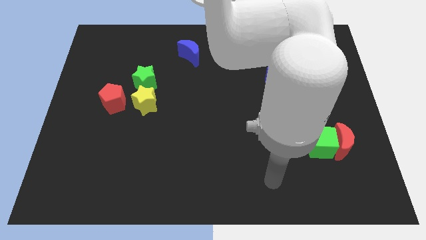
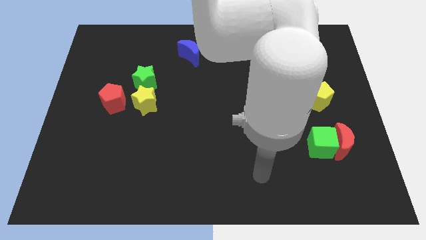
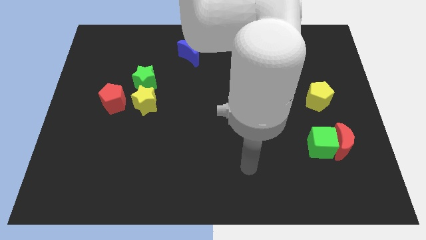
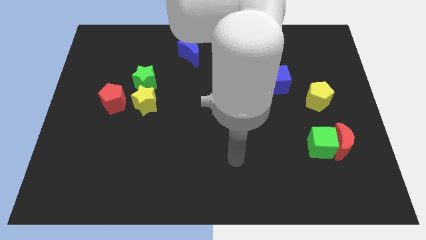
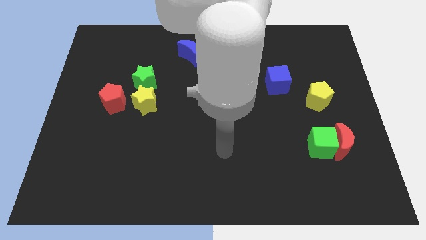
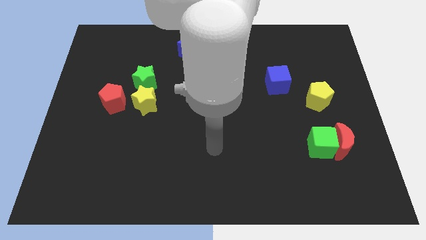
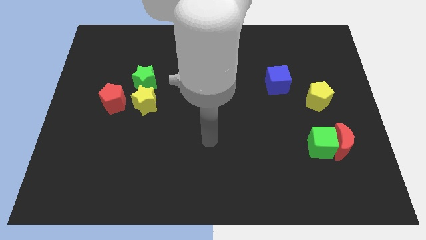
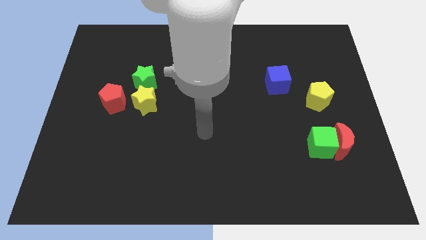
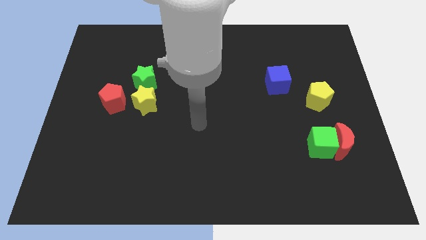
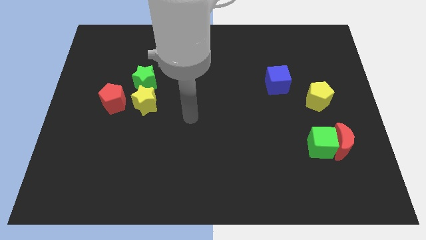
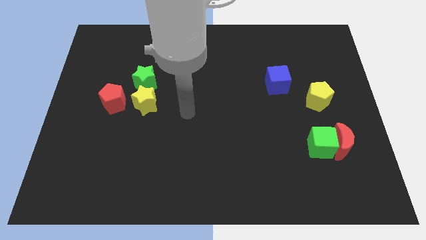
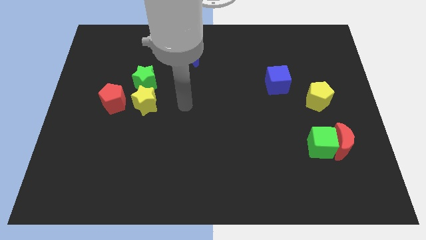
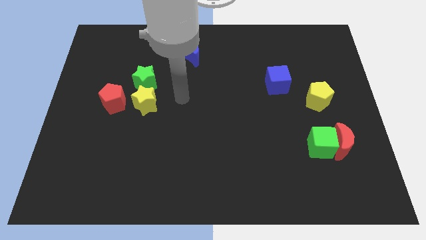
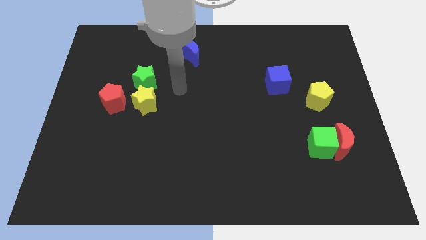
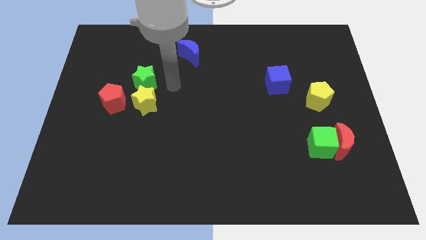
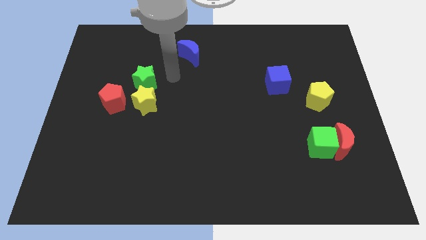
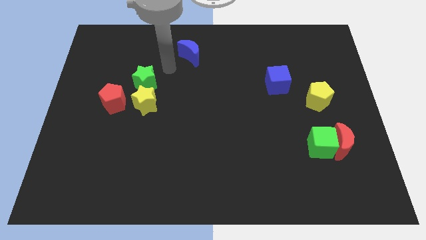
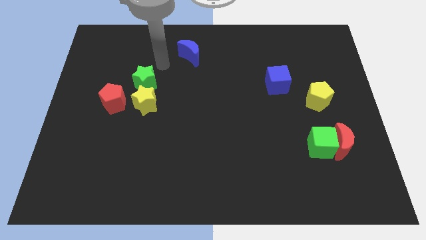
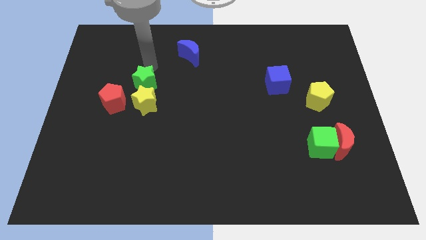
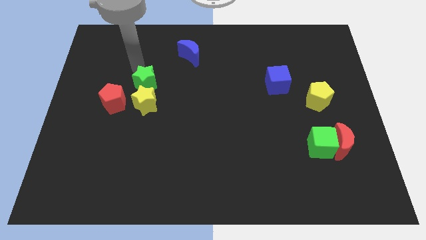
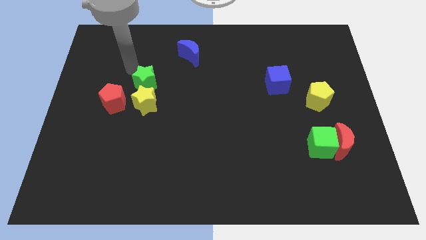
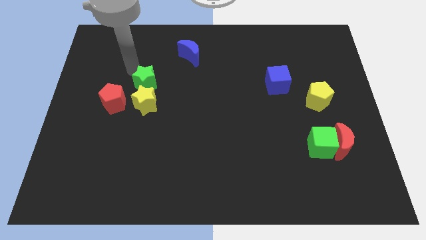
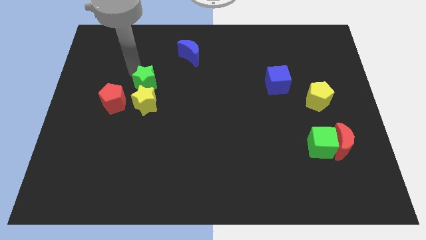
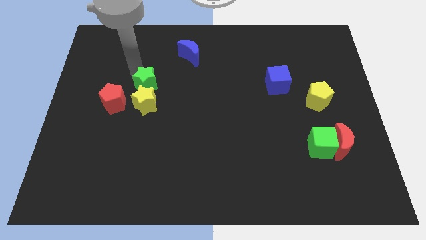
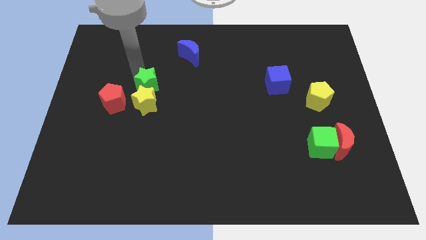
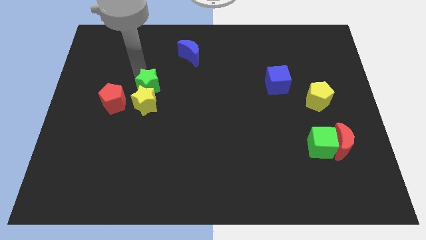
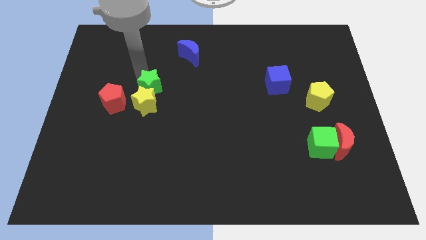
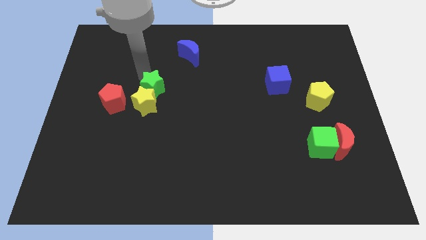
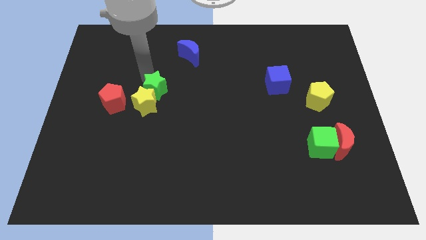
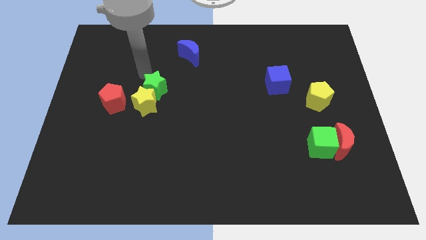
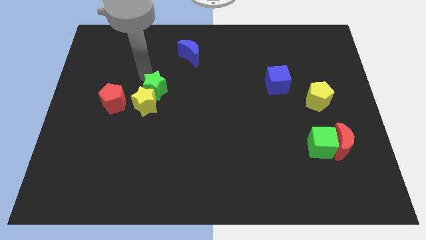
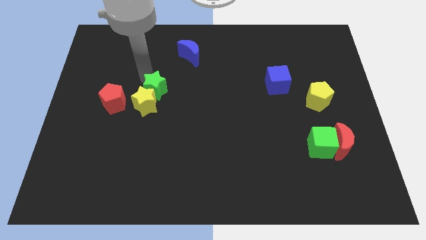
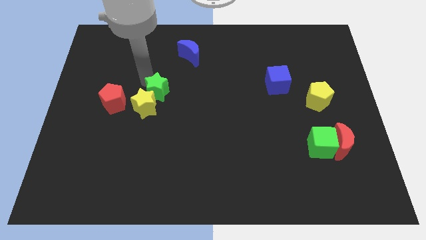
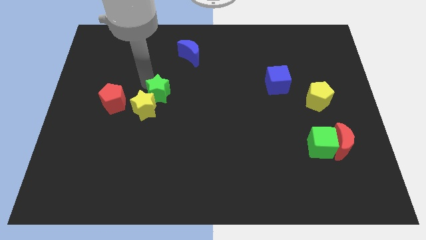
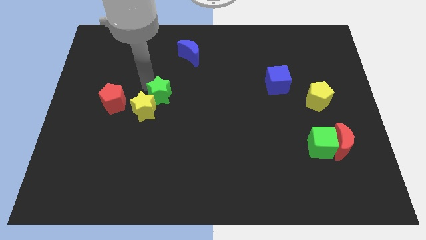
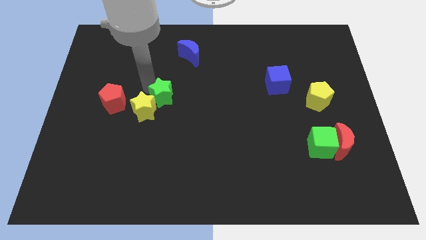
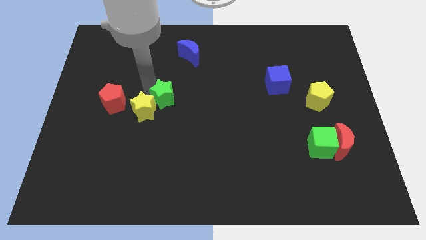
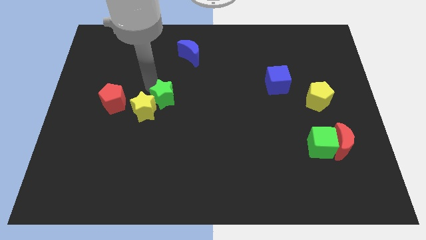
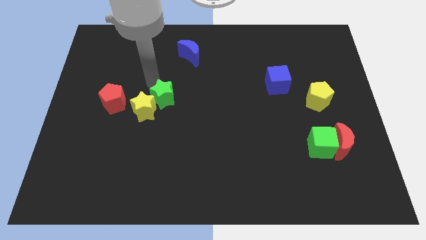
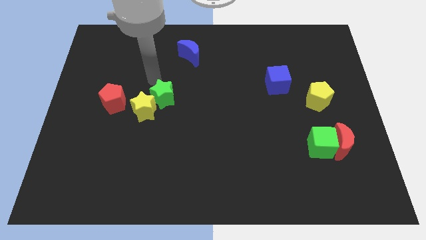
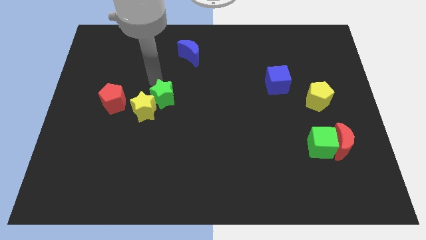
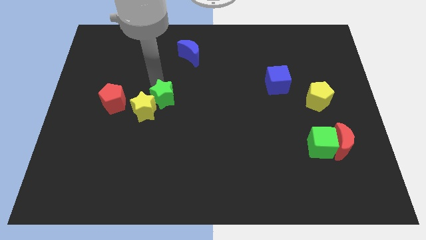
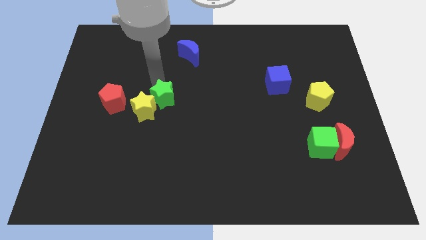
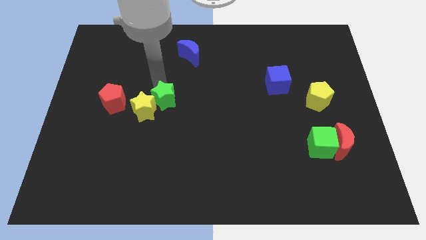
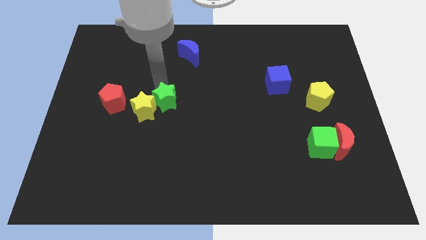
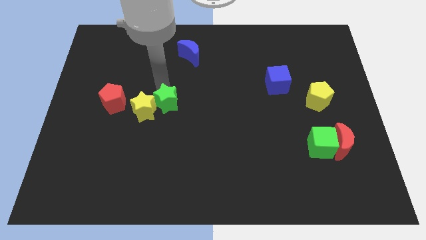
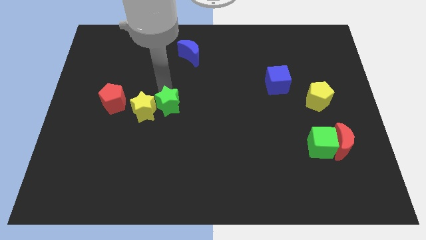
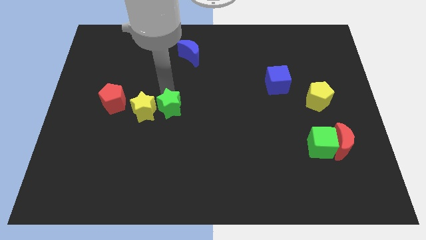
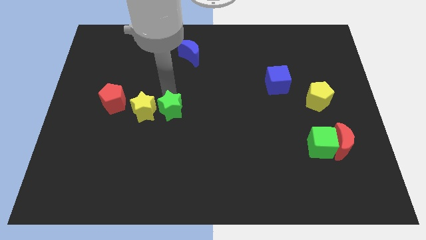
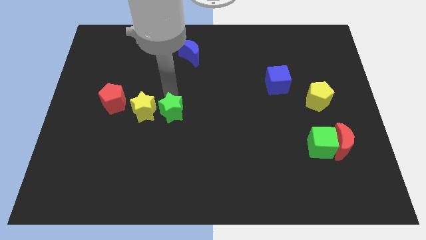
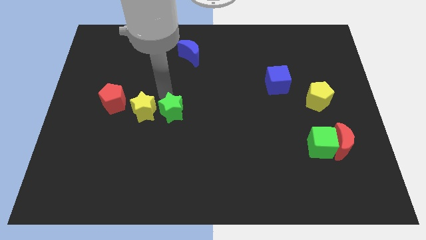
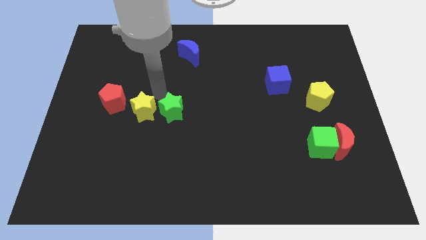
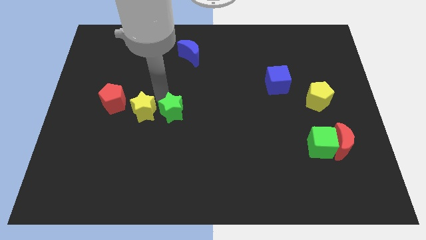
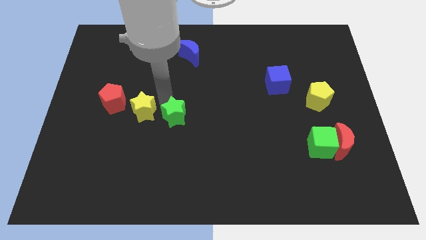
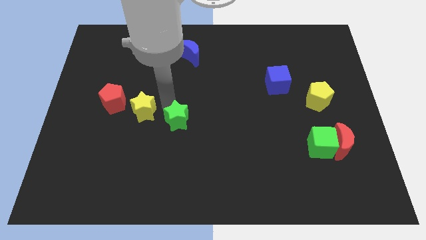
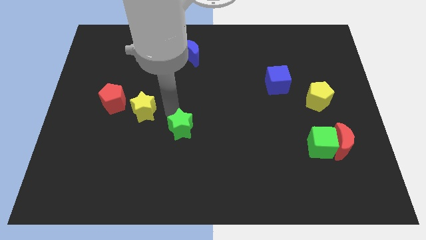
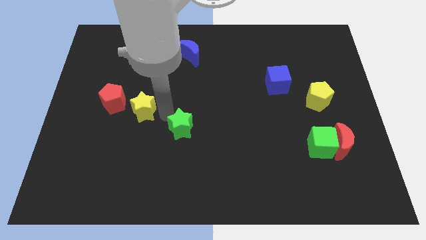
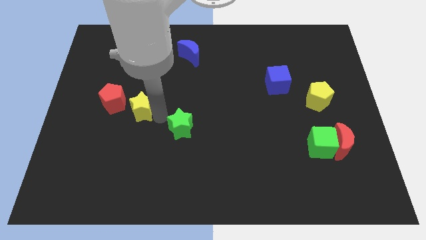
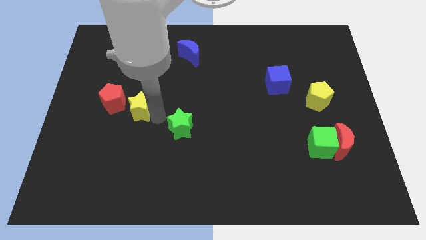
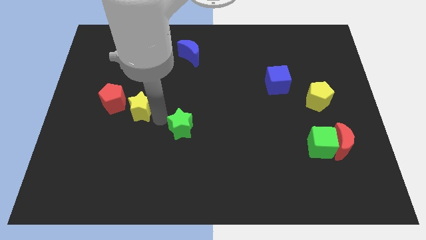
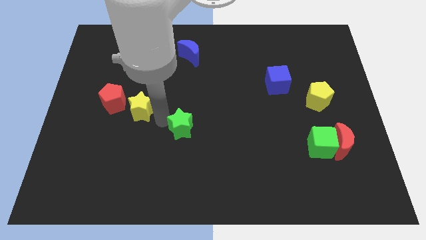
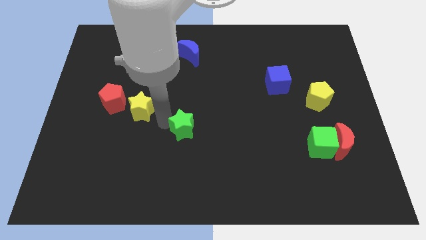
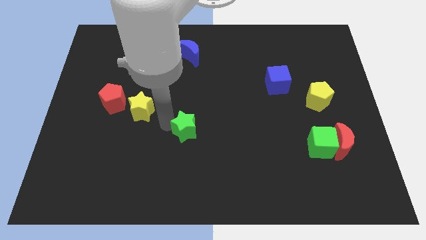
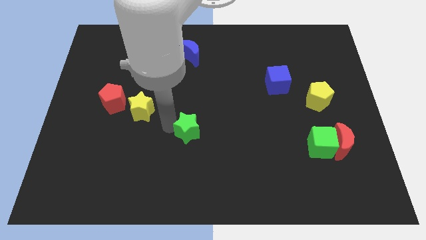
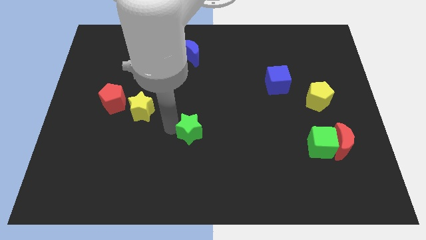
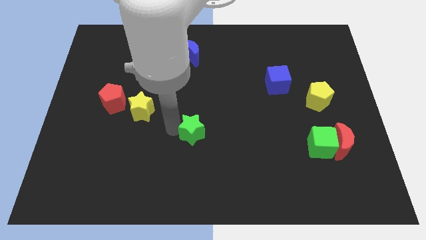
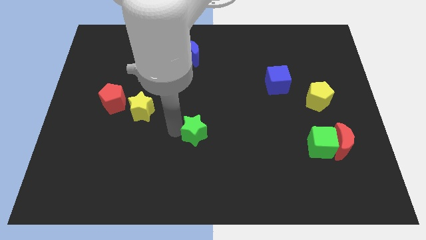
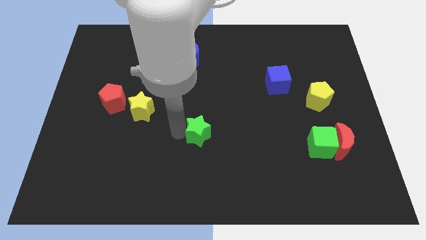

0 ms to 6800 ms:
slide the green star diagonally downwards and right

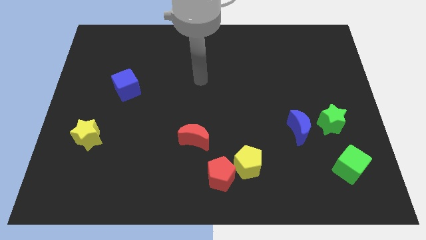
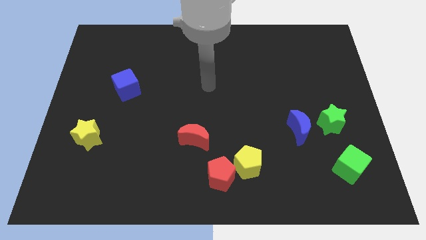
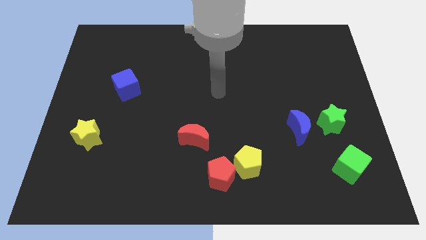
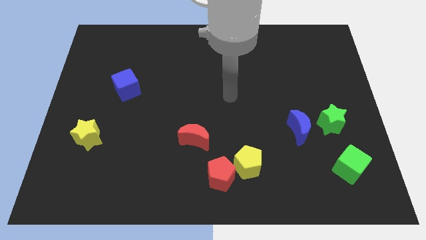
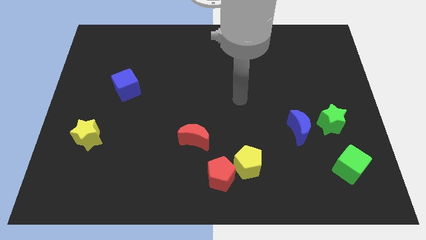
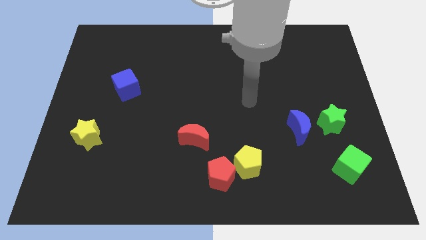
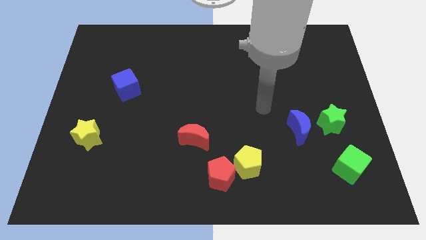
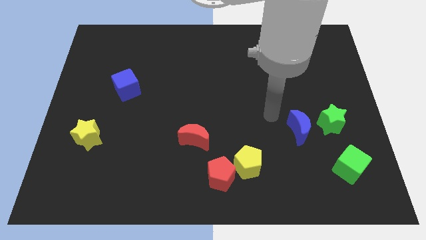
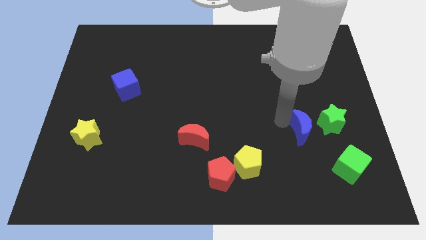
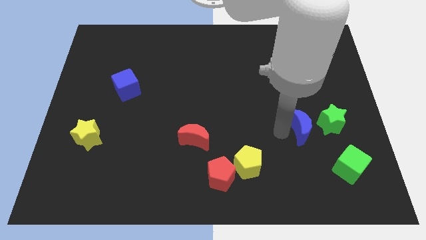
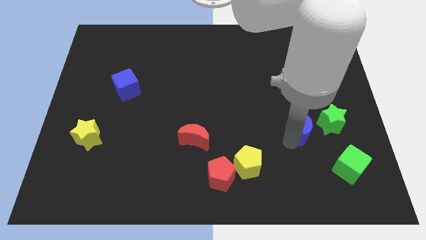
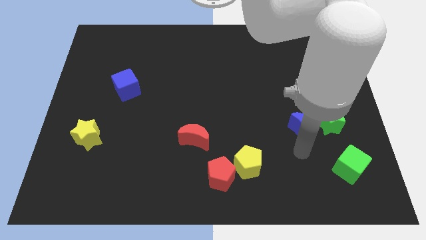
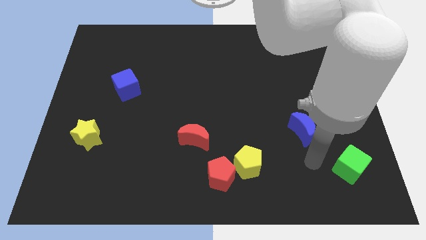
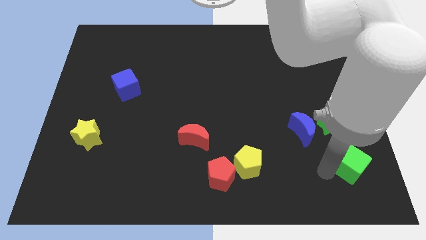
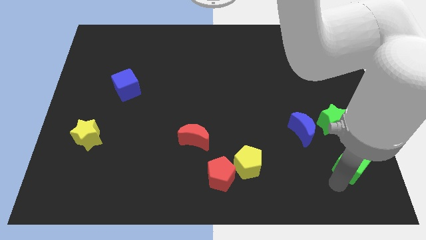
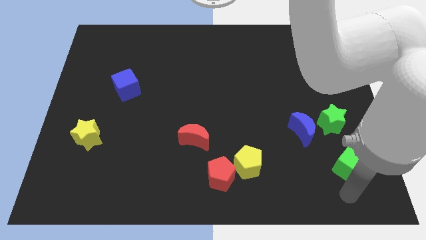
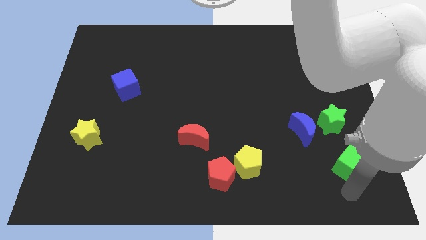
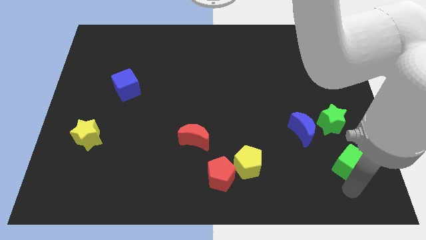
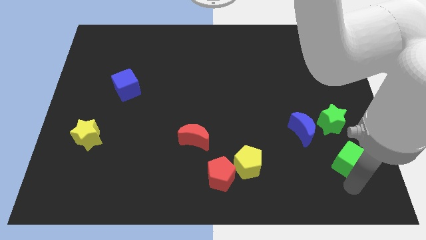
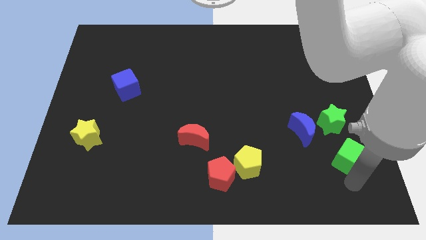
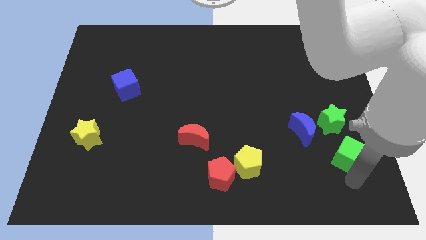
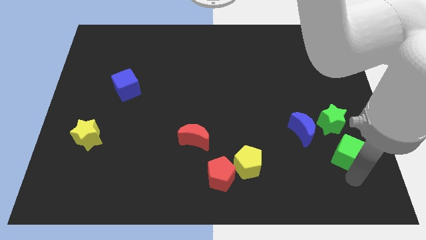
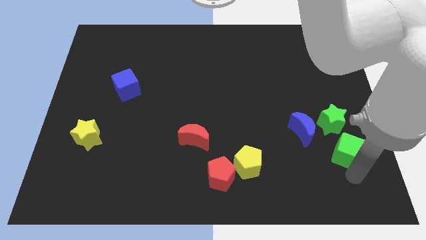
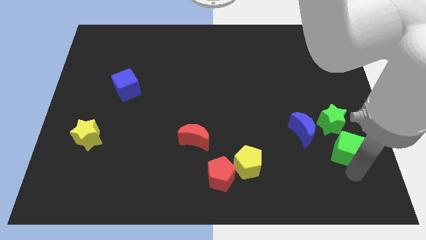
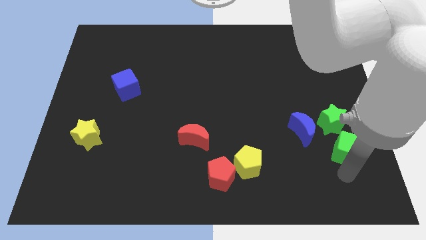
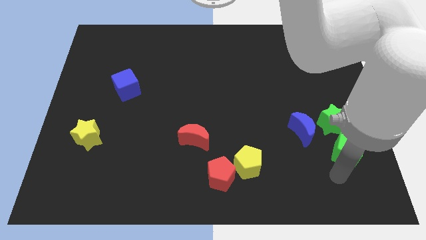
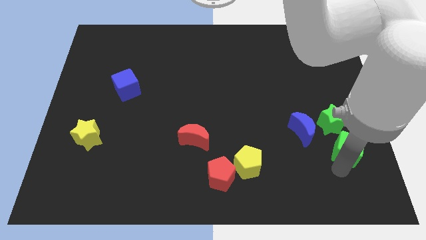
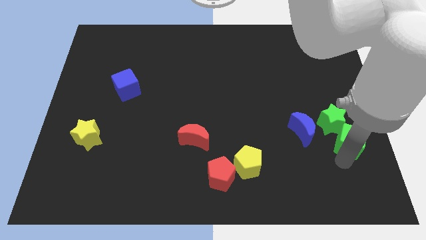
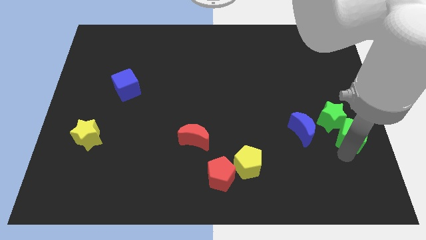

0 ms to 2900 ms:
move the green cube a bit upwards
